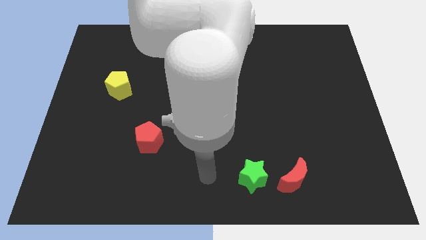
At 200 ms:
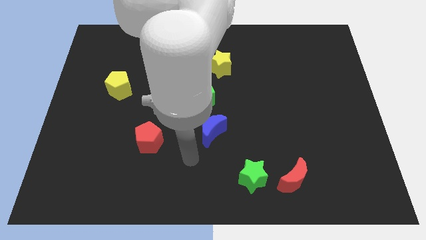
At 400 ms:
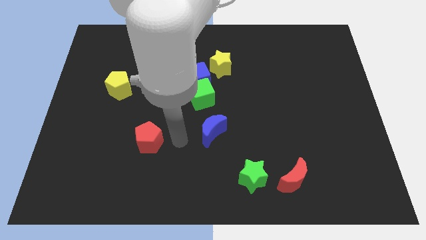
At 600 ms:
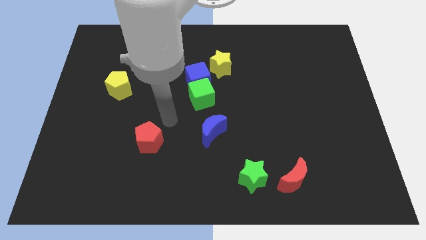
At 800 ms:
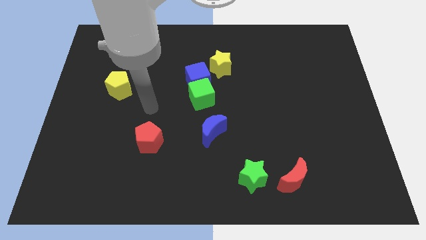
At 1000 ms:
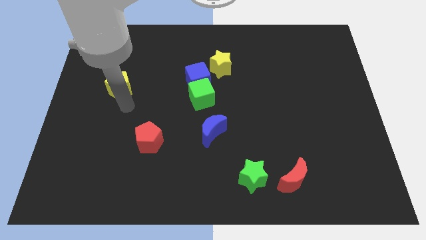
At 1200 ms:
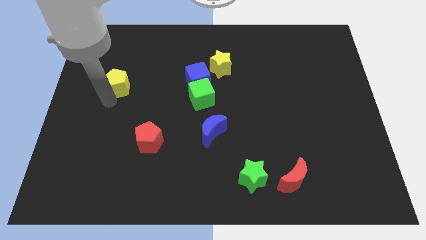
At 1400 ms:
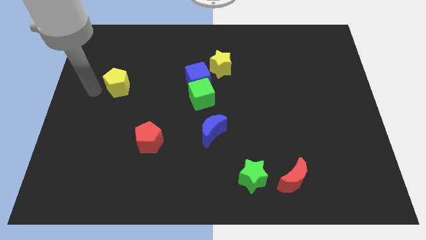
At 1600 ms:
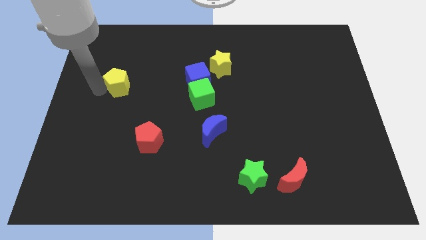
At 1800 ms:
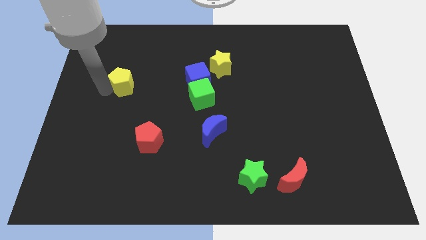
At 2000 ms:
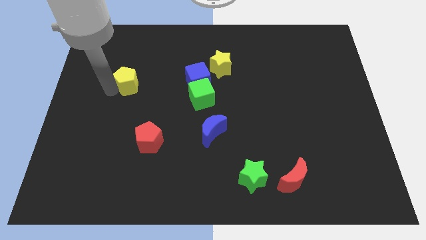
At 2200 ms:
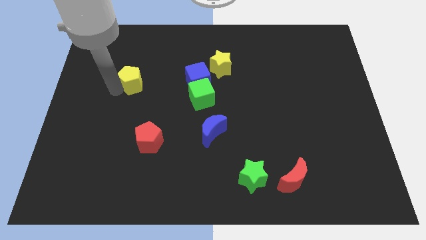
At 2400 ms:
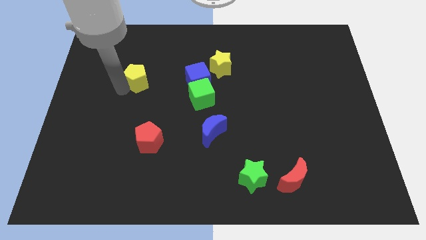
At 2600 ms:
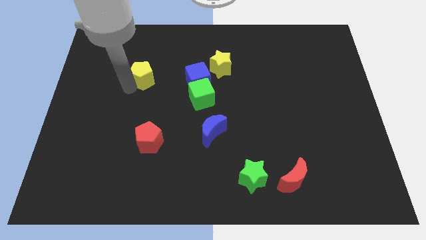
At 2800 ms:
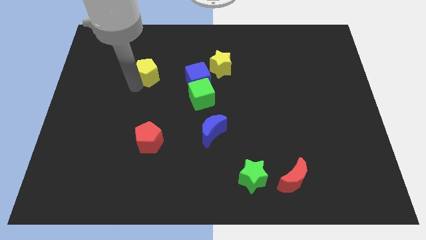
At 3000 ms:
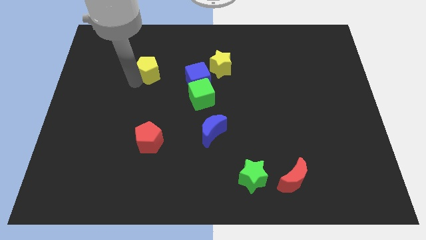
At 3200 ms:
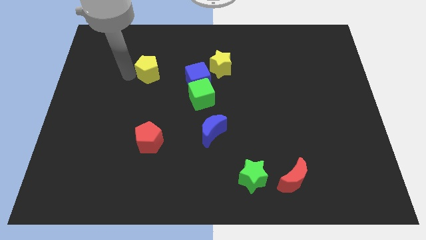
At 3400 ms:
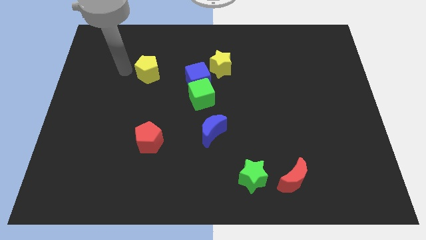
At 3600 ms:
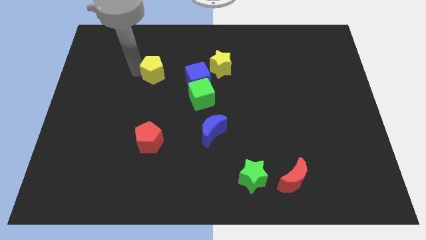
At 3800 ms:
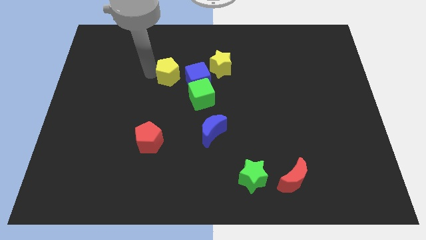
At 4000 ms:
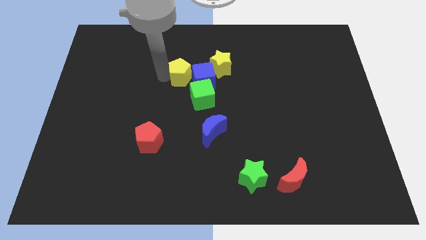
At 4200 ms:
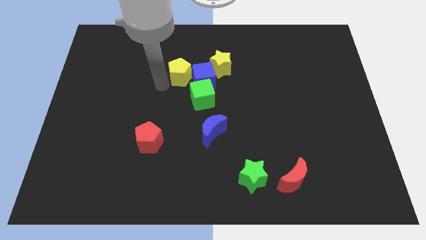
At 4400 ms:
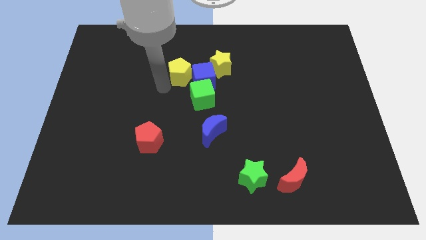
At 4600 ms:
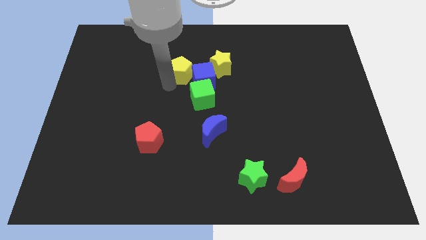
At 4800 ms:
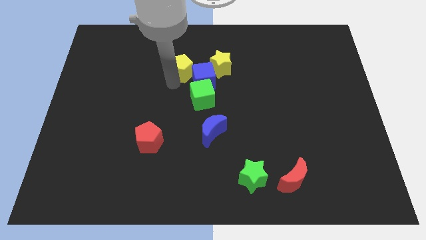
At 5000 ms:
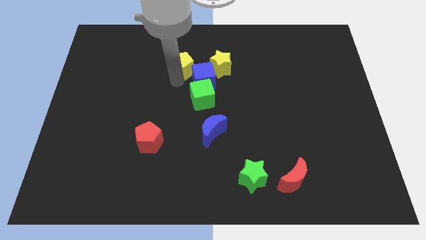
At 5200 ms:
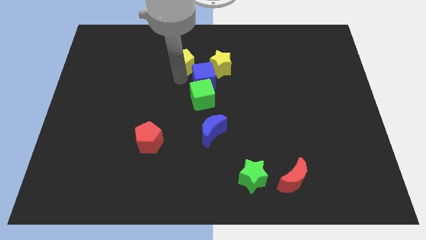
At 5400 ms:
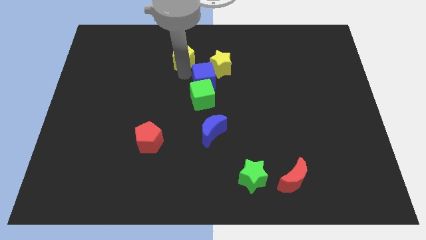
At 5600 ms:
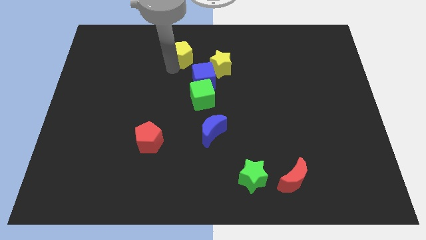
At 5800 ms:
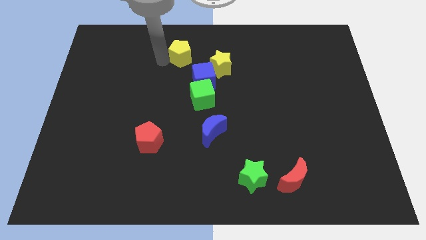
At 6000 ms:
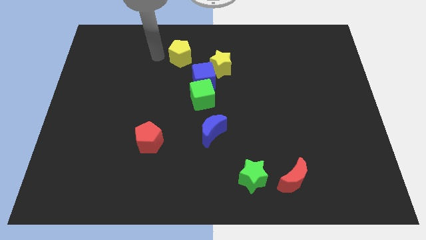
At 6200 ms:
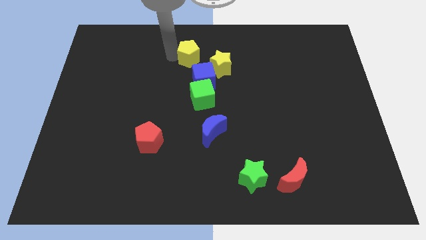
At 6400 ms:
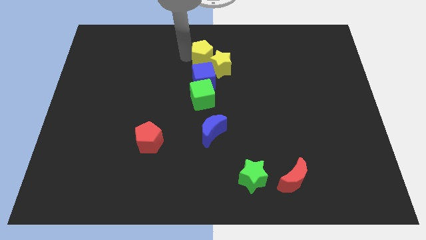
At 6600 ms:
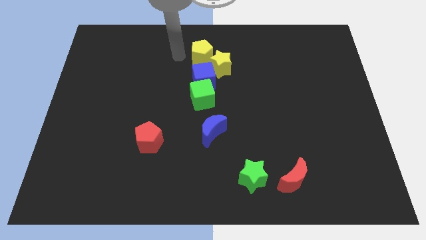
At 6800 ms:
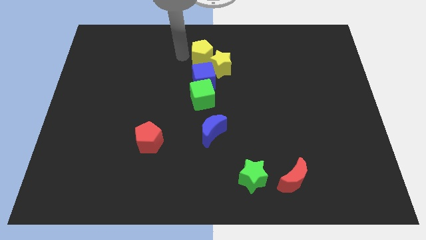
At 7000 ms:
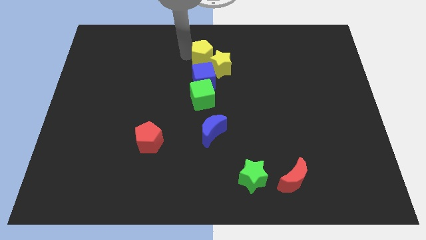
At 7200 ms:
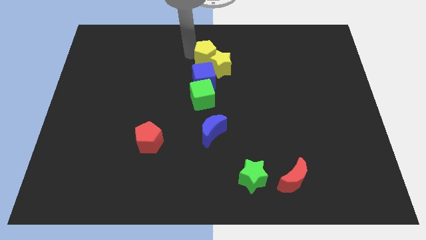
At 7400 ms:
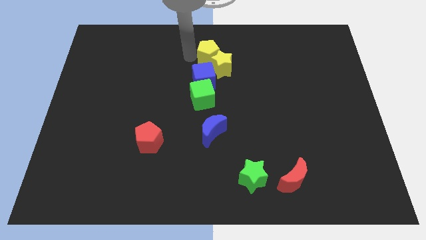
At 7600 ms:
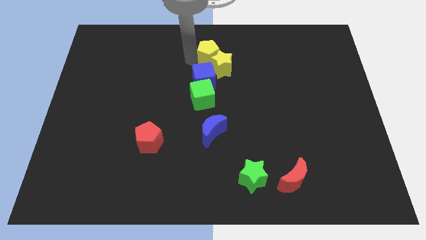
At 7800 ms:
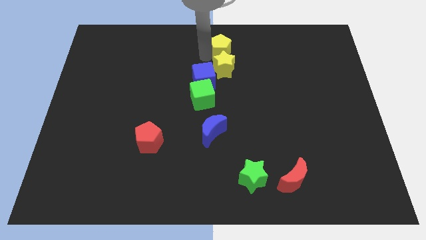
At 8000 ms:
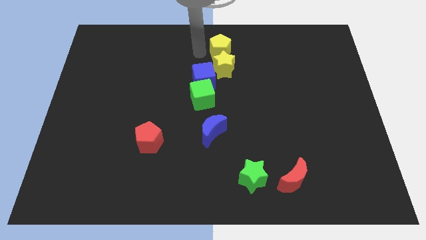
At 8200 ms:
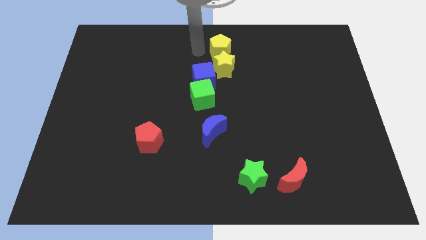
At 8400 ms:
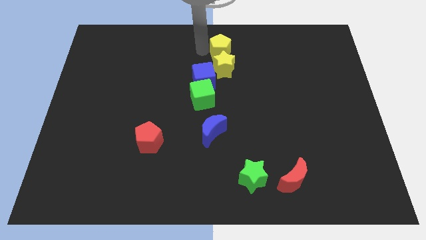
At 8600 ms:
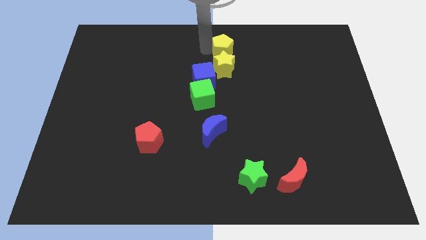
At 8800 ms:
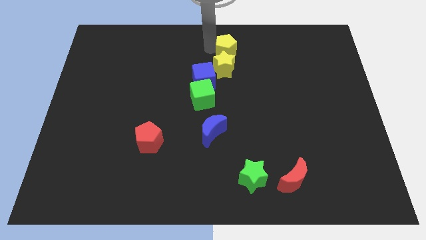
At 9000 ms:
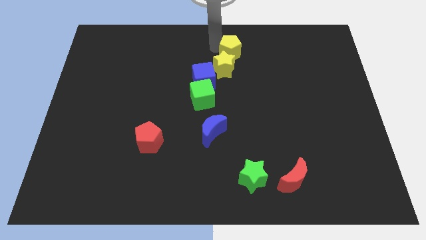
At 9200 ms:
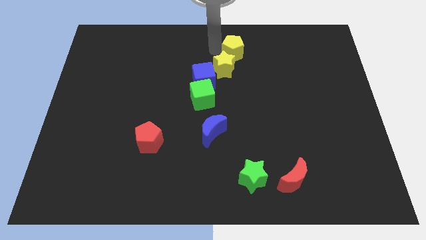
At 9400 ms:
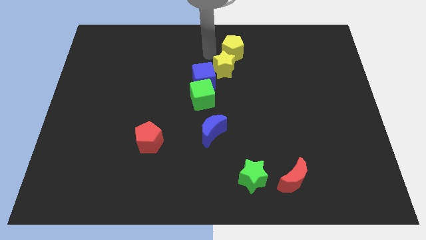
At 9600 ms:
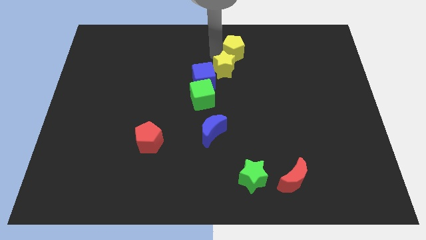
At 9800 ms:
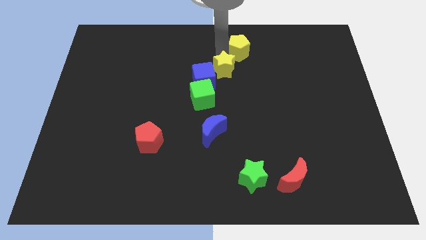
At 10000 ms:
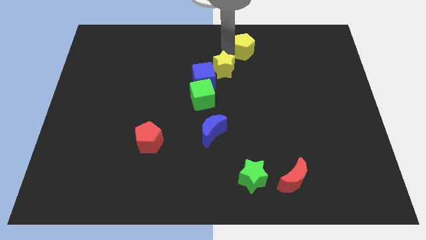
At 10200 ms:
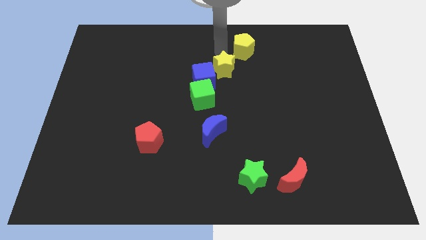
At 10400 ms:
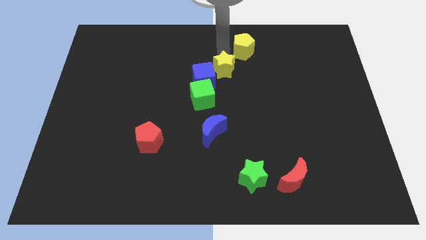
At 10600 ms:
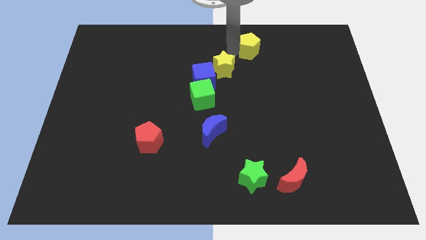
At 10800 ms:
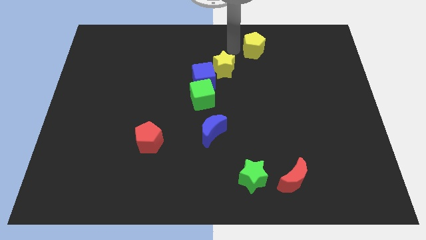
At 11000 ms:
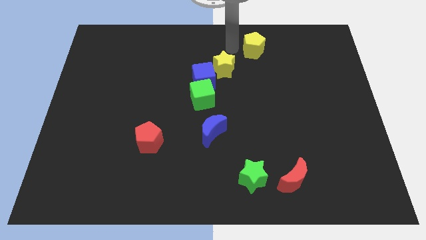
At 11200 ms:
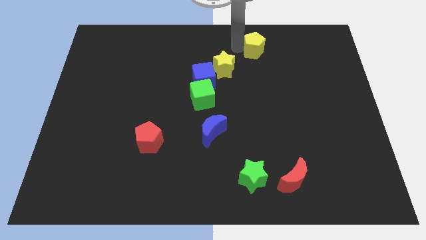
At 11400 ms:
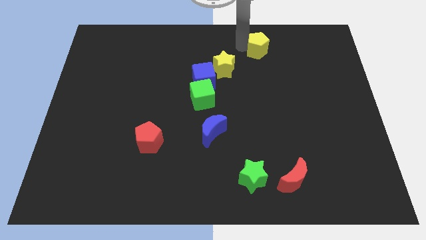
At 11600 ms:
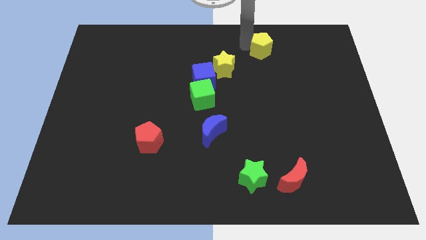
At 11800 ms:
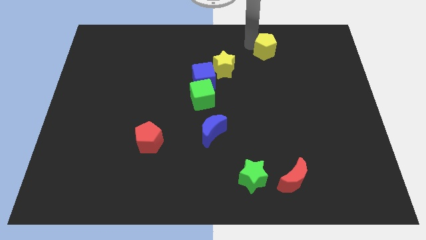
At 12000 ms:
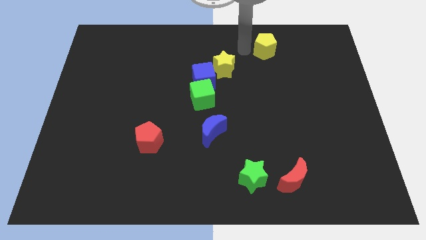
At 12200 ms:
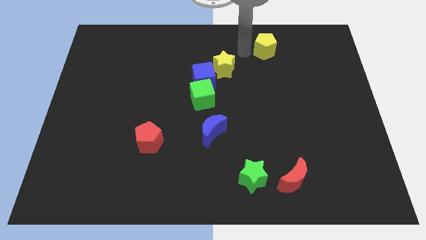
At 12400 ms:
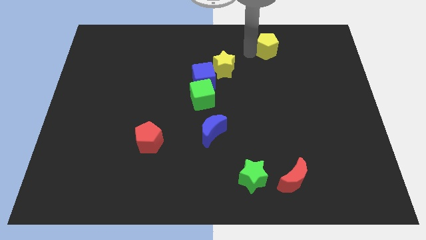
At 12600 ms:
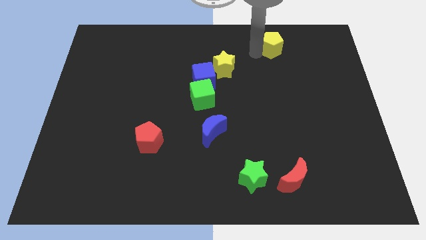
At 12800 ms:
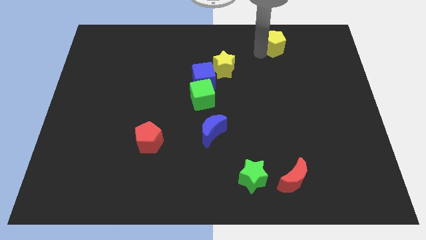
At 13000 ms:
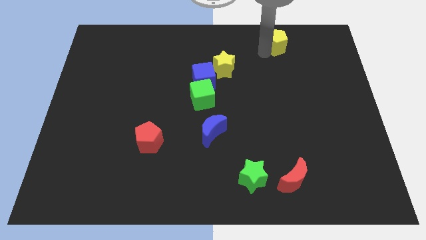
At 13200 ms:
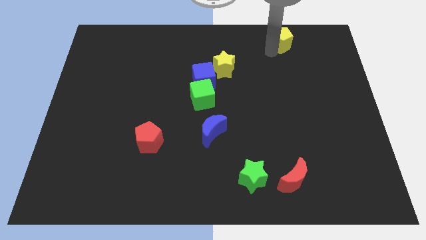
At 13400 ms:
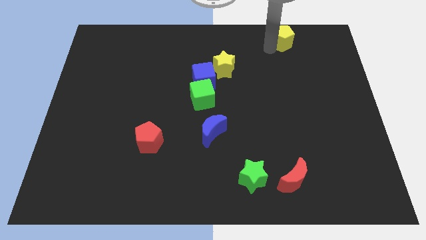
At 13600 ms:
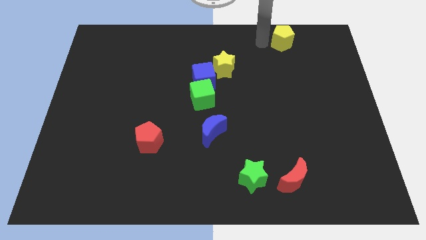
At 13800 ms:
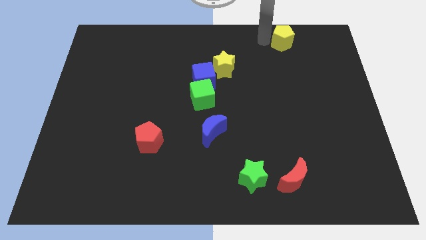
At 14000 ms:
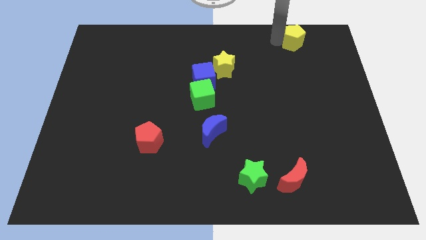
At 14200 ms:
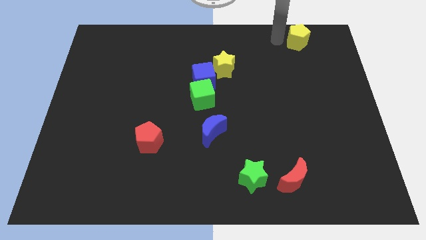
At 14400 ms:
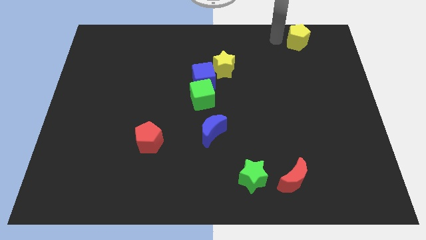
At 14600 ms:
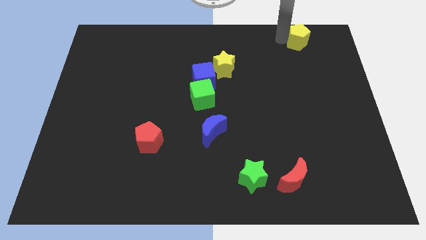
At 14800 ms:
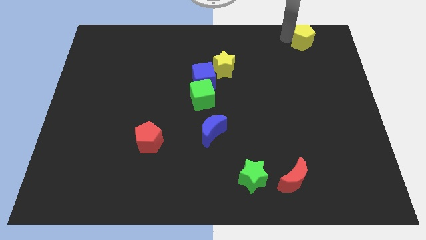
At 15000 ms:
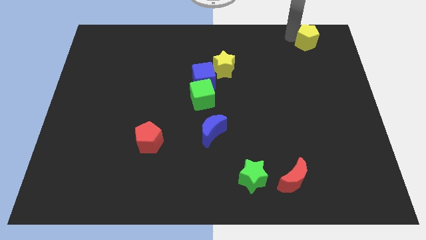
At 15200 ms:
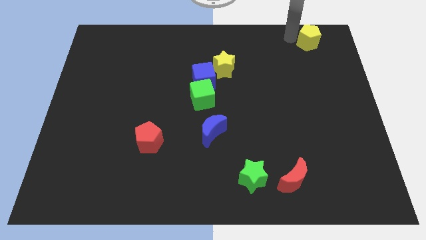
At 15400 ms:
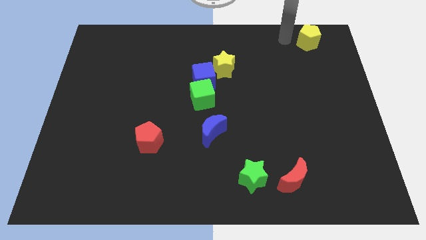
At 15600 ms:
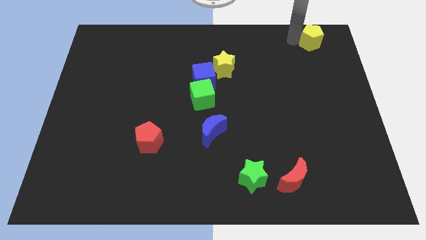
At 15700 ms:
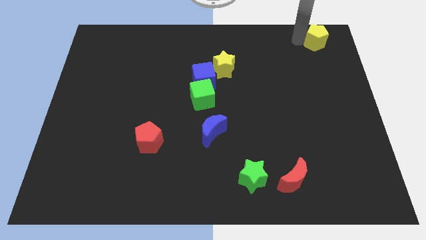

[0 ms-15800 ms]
push the yellow pentagon to the top right
